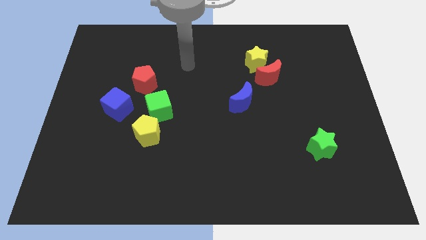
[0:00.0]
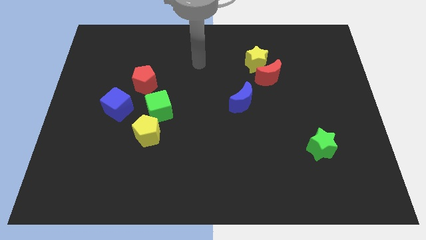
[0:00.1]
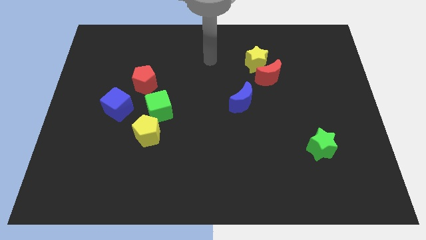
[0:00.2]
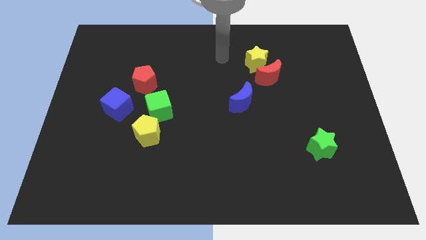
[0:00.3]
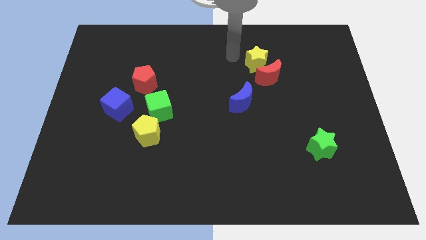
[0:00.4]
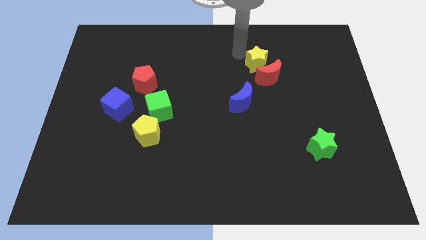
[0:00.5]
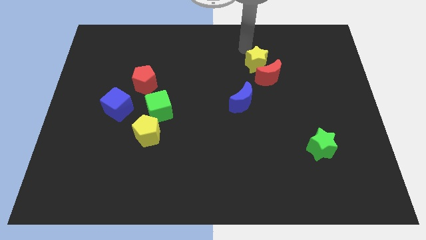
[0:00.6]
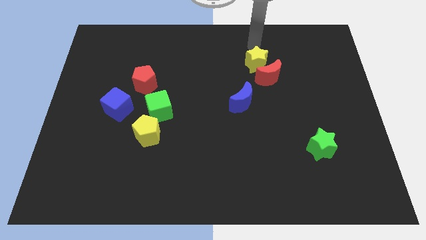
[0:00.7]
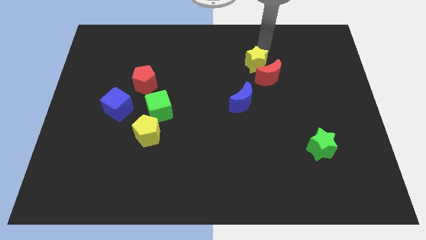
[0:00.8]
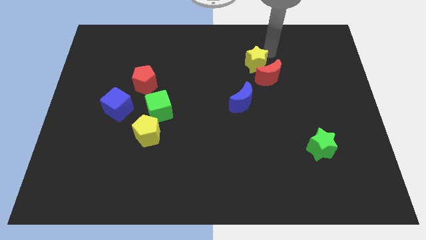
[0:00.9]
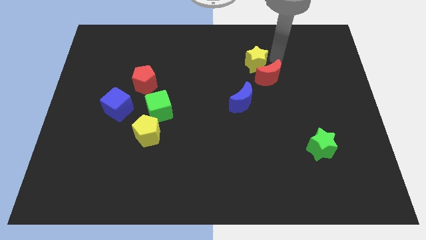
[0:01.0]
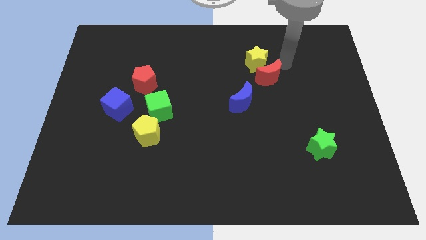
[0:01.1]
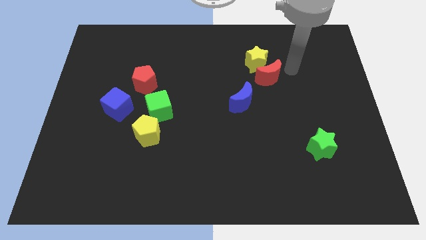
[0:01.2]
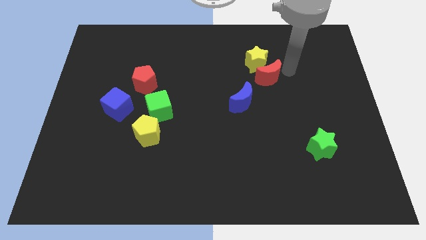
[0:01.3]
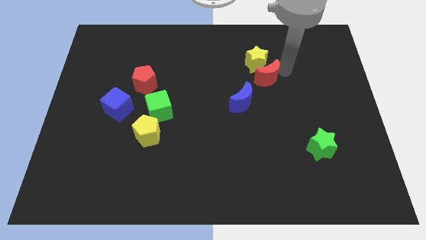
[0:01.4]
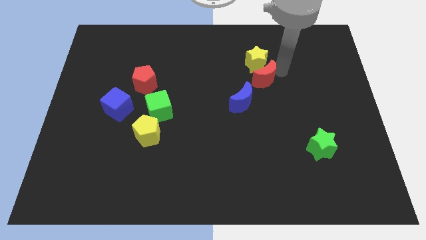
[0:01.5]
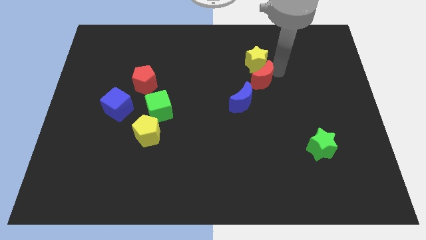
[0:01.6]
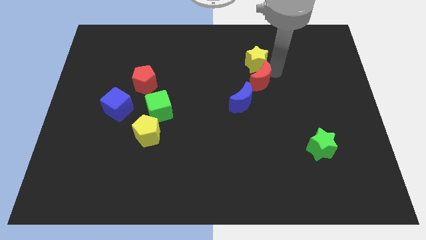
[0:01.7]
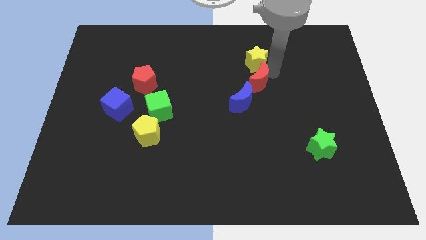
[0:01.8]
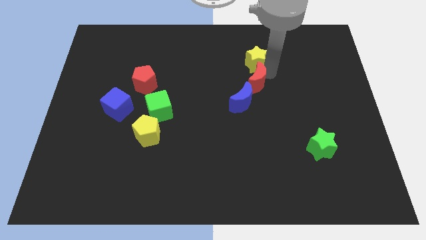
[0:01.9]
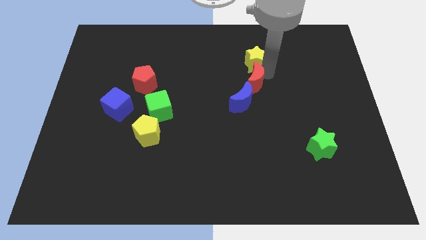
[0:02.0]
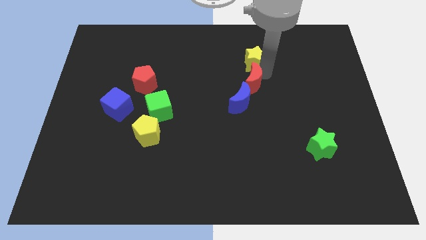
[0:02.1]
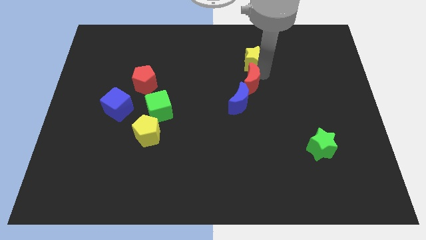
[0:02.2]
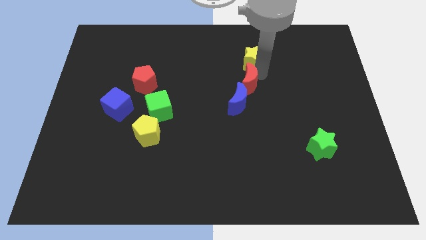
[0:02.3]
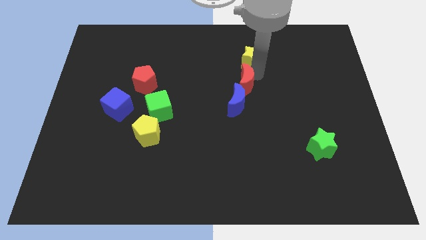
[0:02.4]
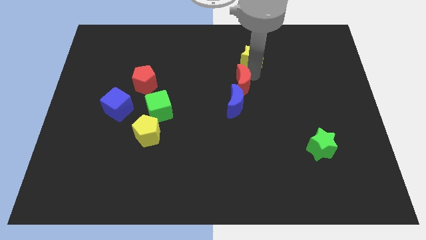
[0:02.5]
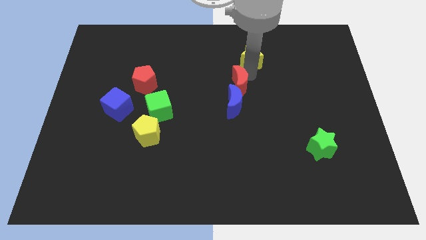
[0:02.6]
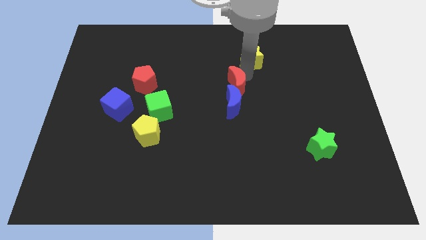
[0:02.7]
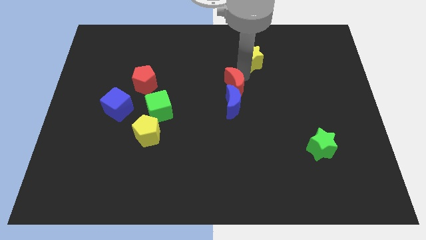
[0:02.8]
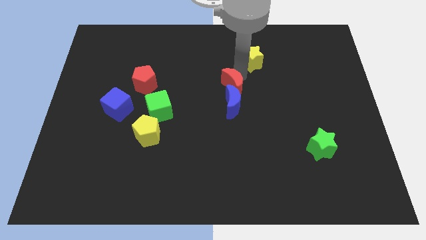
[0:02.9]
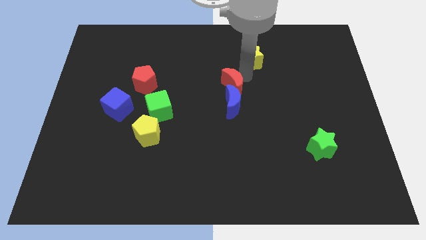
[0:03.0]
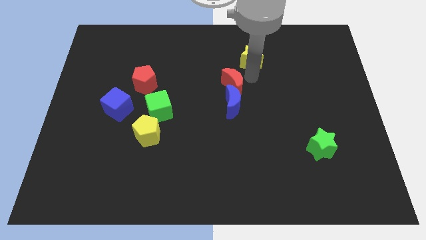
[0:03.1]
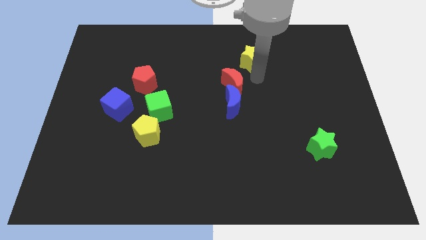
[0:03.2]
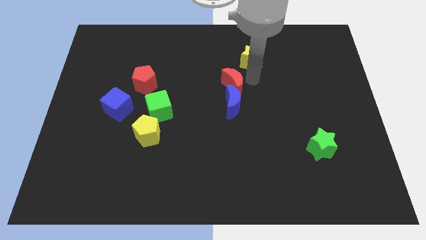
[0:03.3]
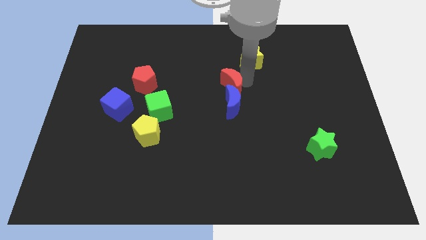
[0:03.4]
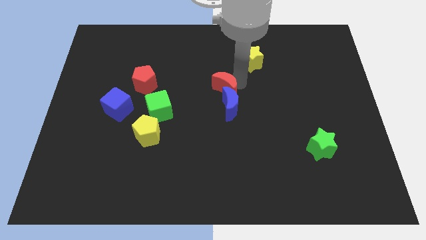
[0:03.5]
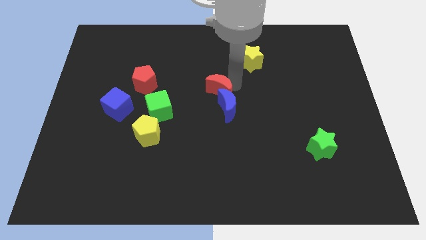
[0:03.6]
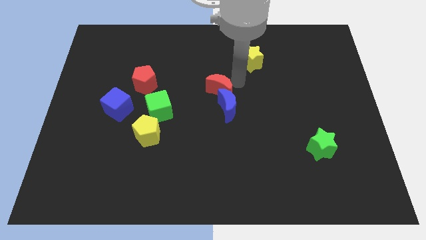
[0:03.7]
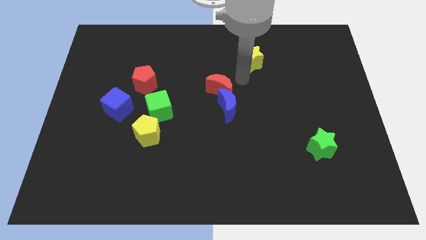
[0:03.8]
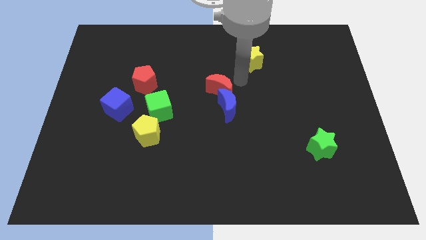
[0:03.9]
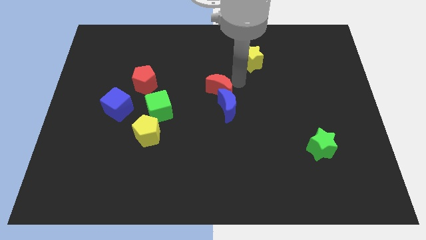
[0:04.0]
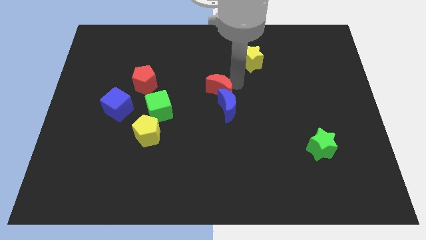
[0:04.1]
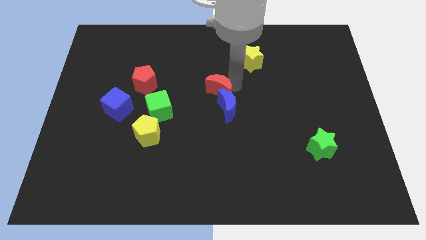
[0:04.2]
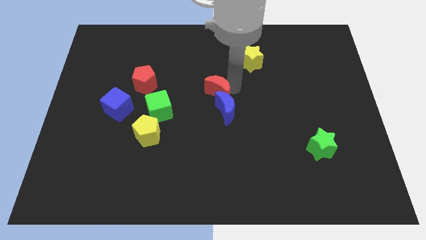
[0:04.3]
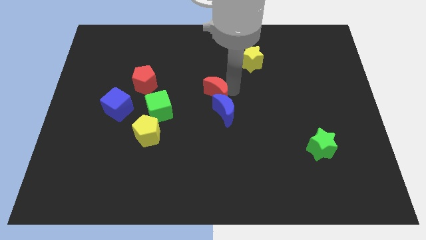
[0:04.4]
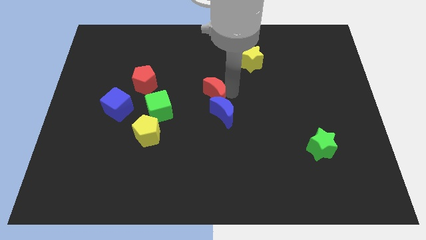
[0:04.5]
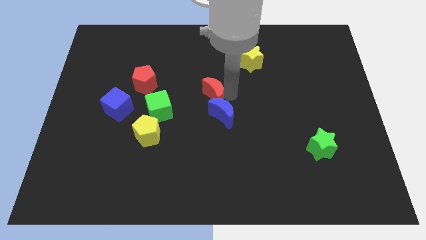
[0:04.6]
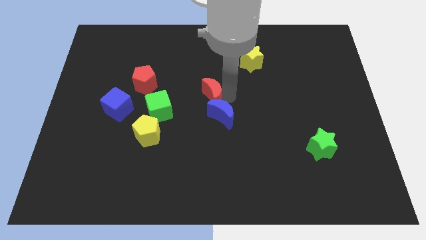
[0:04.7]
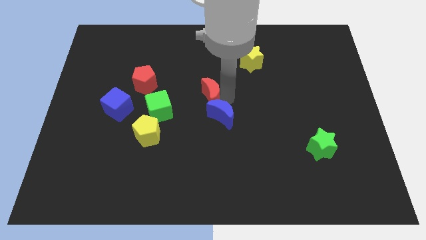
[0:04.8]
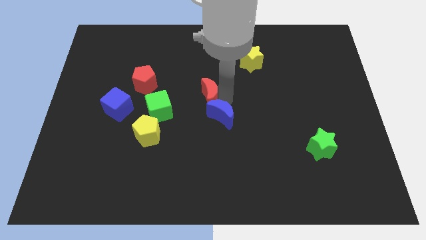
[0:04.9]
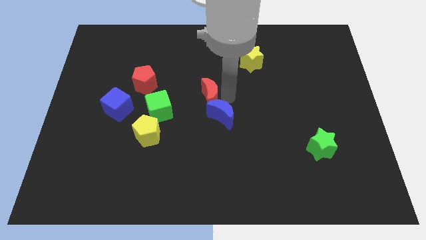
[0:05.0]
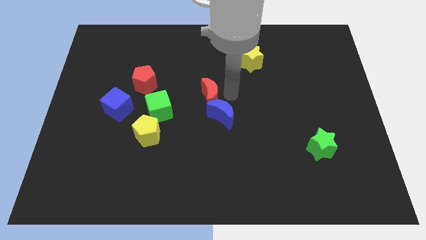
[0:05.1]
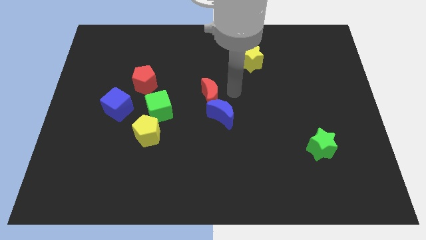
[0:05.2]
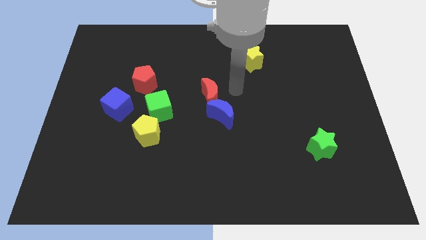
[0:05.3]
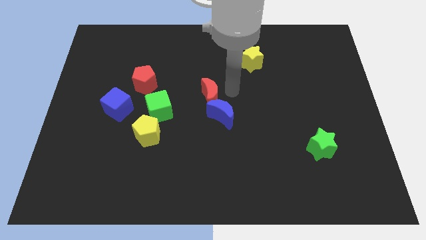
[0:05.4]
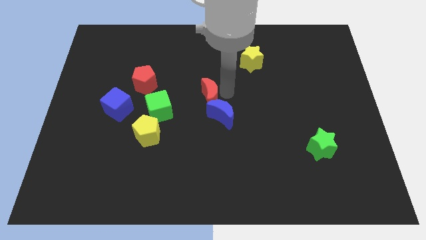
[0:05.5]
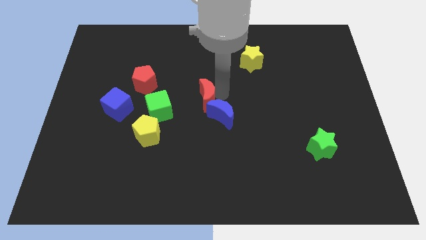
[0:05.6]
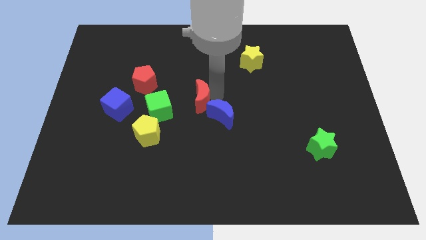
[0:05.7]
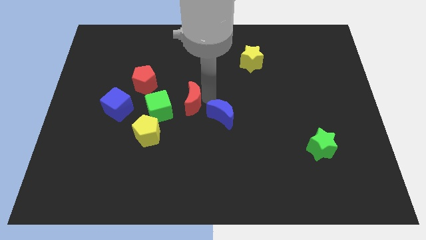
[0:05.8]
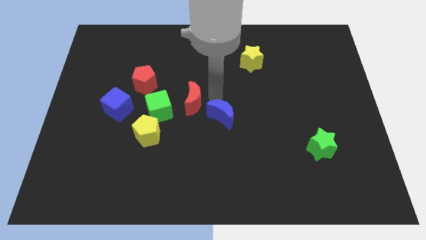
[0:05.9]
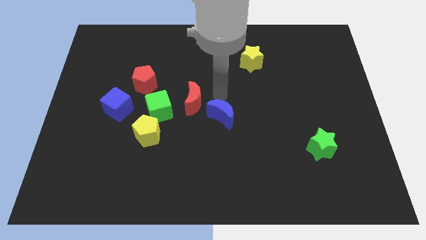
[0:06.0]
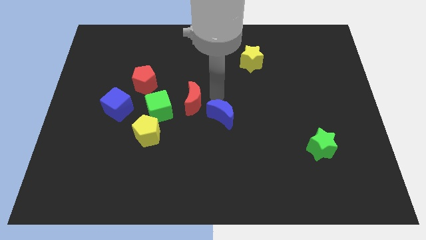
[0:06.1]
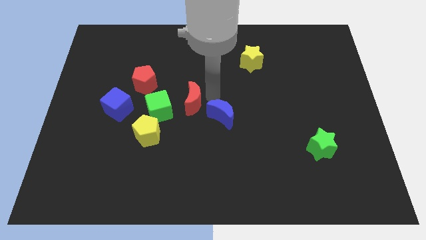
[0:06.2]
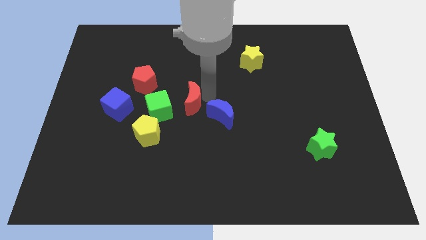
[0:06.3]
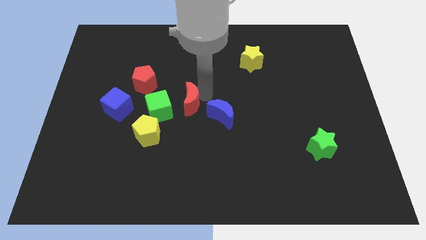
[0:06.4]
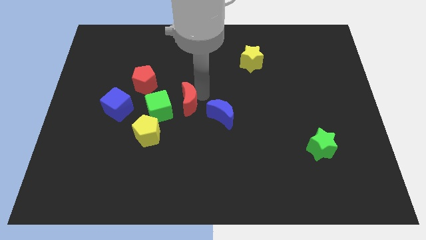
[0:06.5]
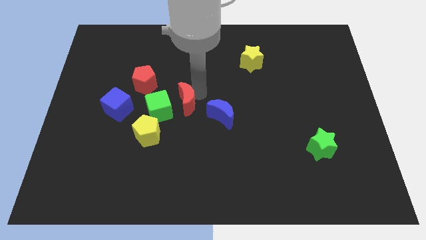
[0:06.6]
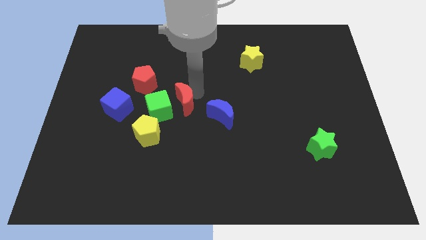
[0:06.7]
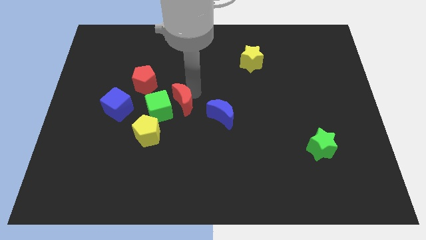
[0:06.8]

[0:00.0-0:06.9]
put the red moon next to the green cube

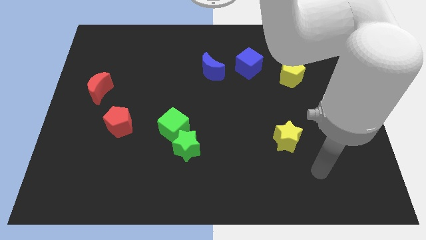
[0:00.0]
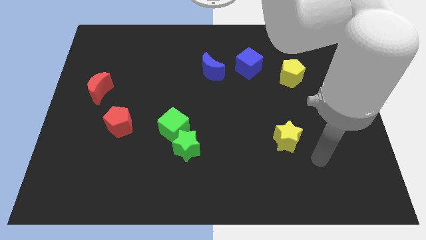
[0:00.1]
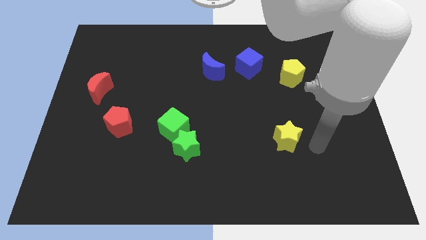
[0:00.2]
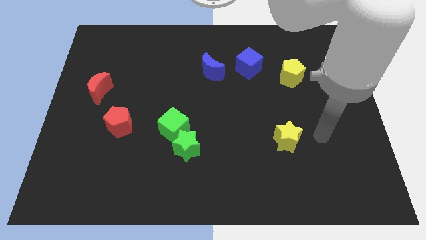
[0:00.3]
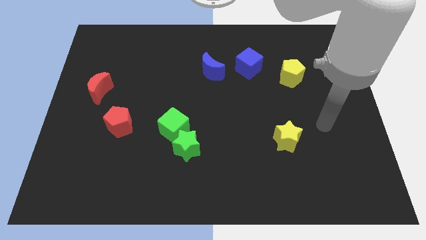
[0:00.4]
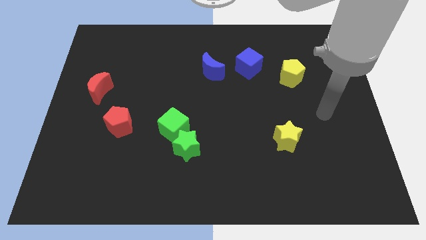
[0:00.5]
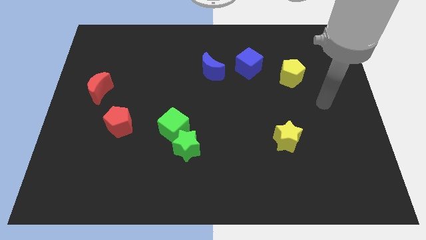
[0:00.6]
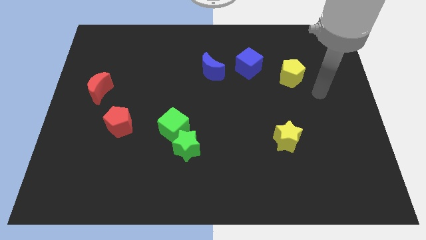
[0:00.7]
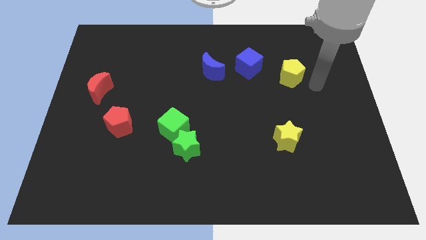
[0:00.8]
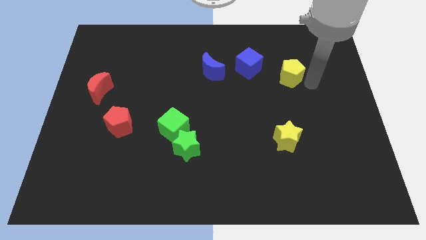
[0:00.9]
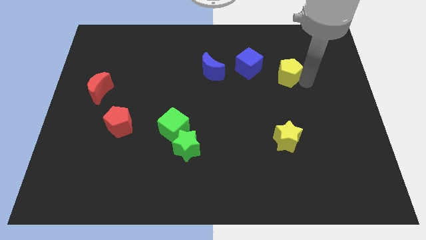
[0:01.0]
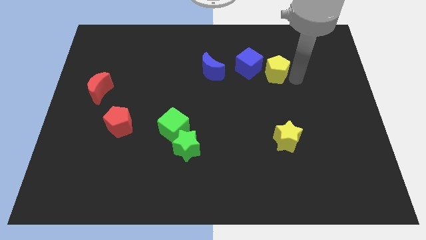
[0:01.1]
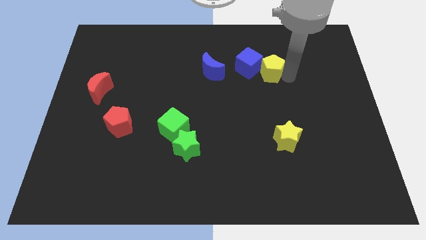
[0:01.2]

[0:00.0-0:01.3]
put the yellow pentagon towards the blue cube
